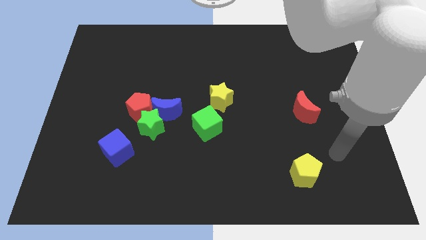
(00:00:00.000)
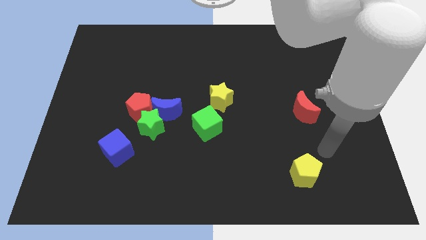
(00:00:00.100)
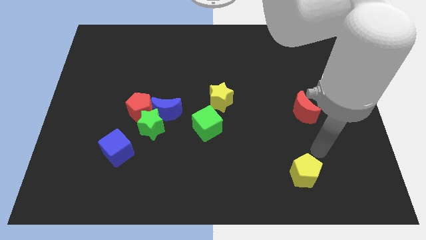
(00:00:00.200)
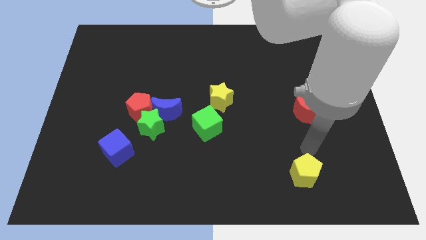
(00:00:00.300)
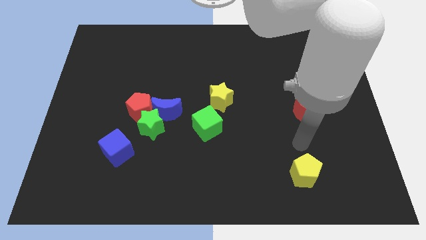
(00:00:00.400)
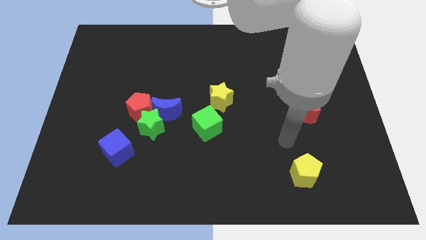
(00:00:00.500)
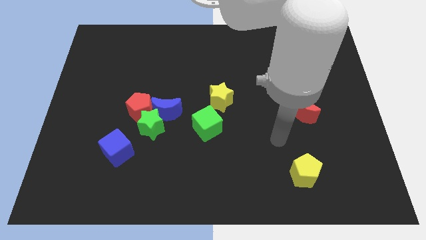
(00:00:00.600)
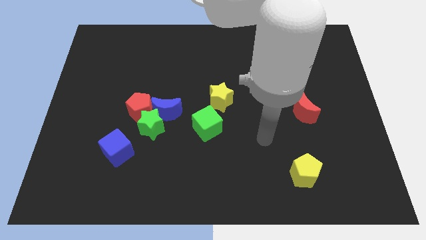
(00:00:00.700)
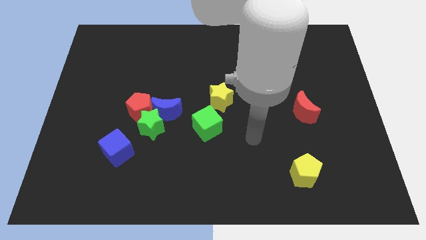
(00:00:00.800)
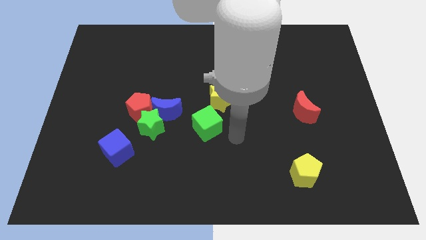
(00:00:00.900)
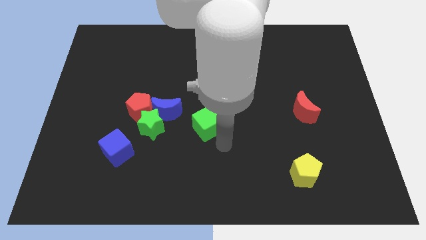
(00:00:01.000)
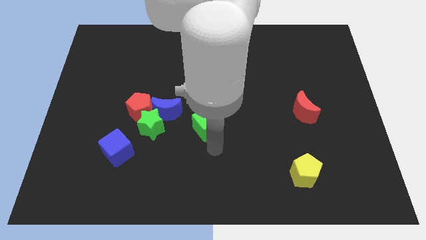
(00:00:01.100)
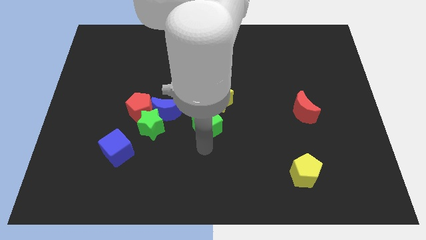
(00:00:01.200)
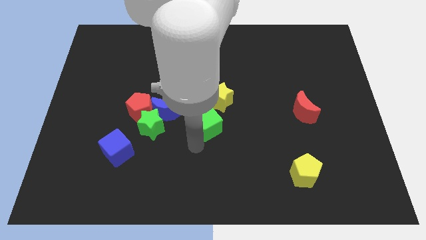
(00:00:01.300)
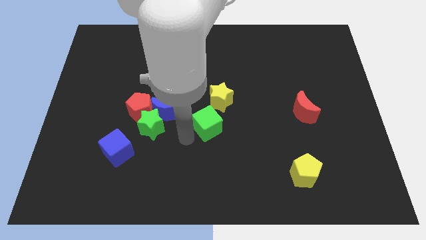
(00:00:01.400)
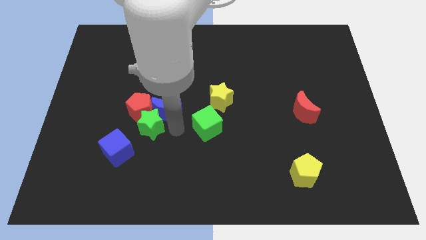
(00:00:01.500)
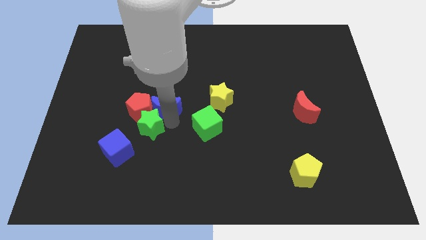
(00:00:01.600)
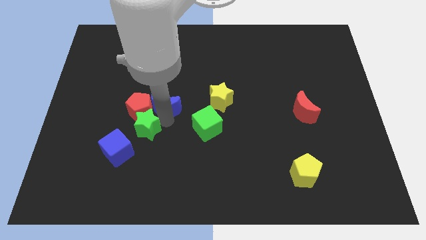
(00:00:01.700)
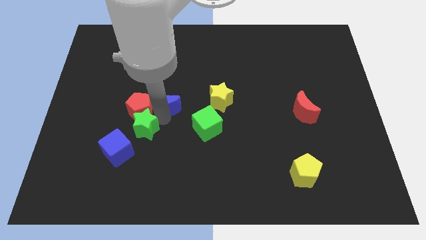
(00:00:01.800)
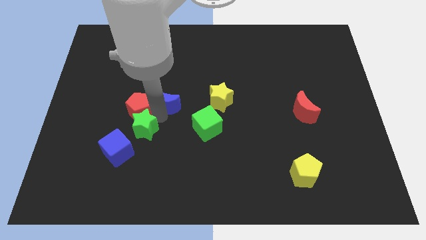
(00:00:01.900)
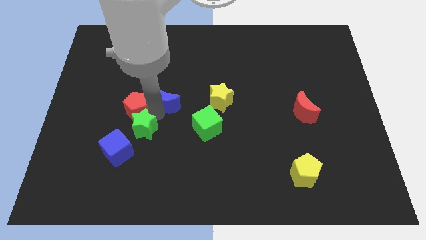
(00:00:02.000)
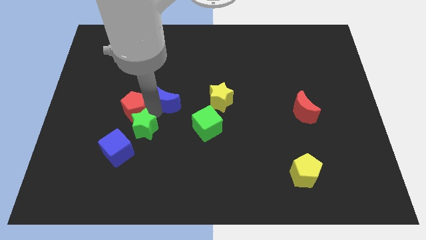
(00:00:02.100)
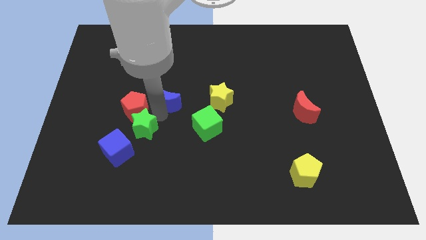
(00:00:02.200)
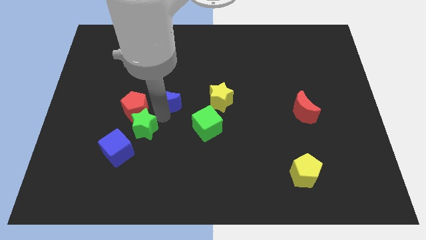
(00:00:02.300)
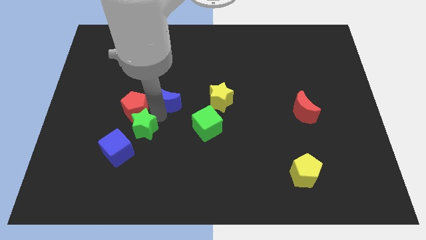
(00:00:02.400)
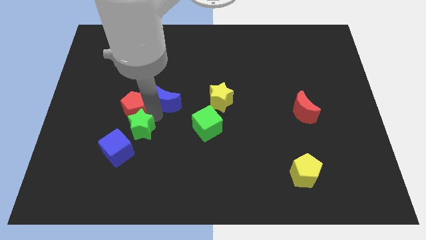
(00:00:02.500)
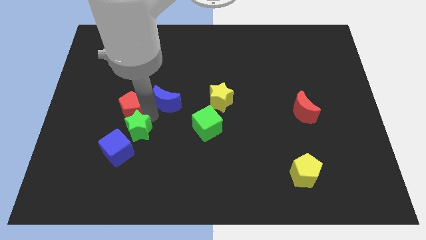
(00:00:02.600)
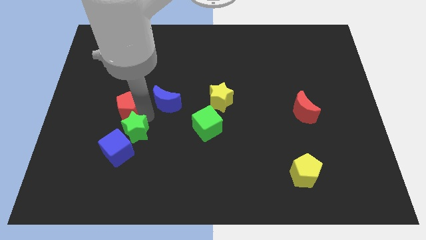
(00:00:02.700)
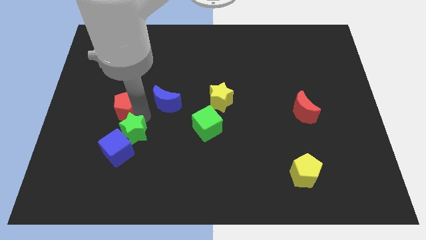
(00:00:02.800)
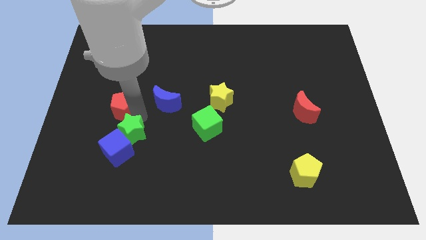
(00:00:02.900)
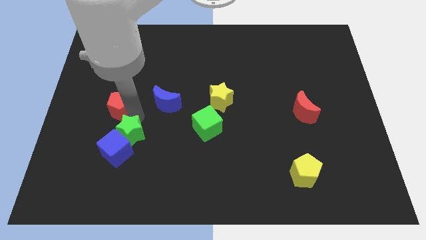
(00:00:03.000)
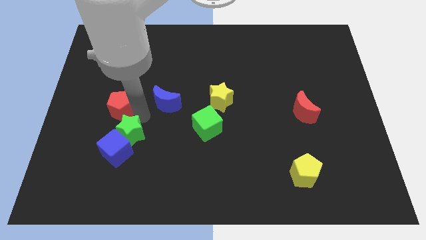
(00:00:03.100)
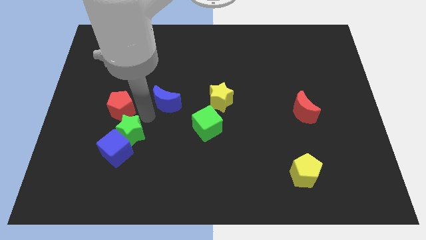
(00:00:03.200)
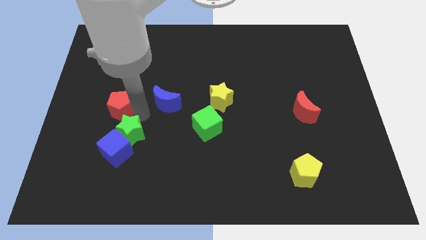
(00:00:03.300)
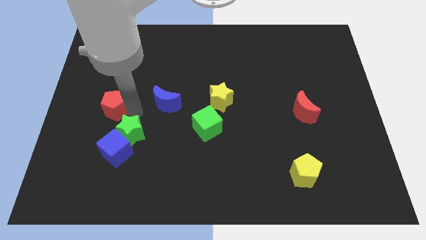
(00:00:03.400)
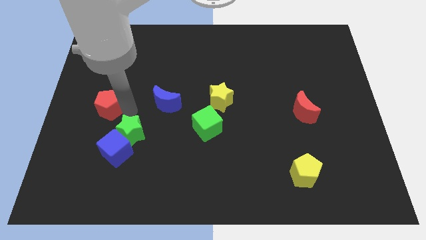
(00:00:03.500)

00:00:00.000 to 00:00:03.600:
move the red pentagon away from the green star and blue moon

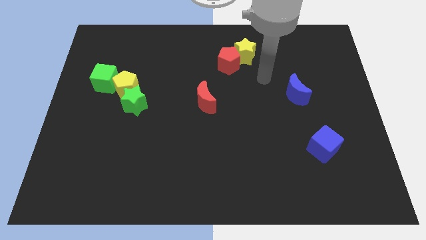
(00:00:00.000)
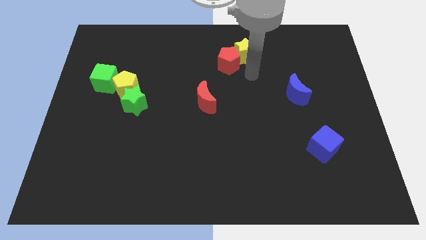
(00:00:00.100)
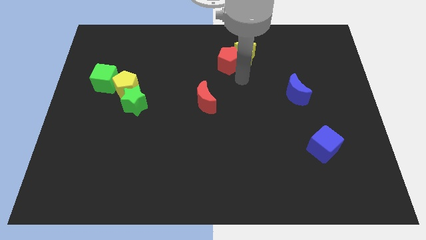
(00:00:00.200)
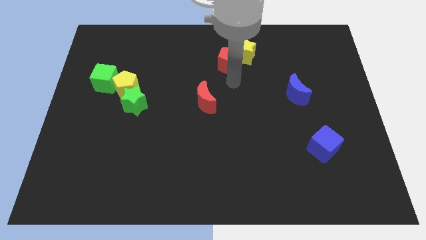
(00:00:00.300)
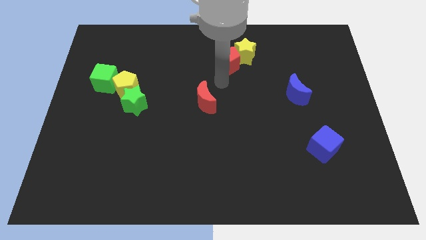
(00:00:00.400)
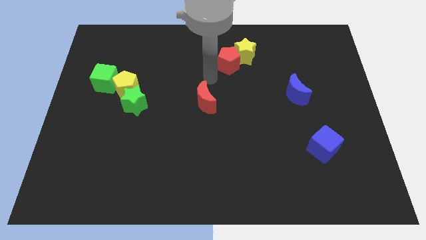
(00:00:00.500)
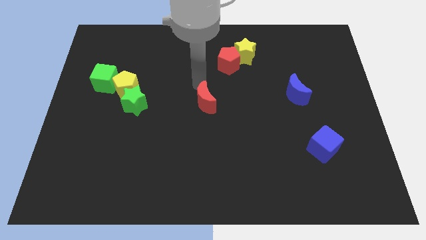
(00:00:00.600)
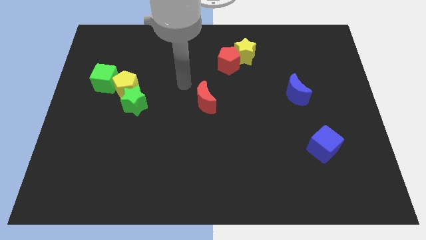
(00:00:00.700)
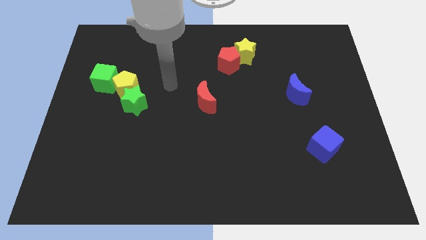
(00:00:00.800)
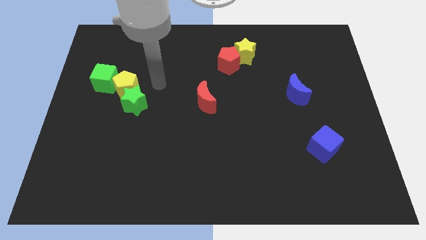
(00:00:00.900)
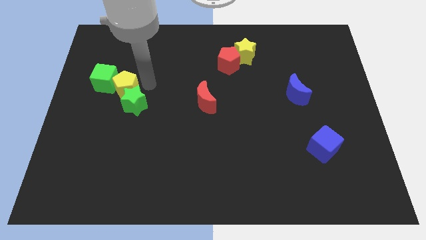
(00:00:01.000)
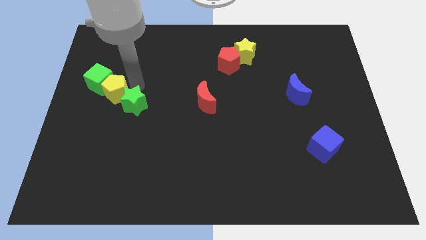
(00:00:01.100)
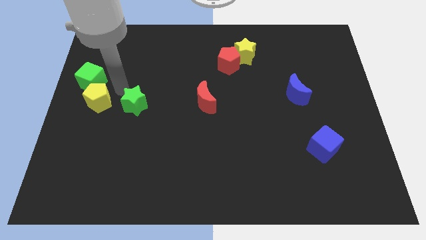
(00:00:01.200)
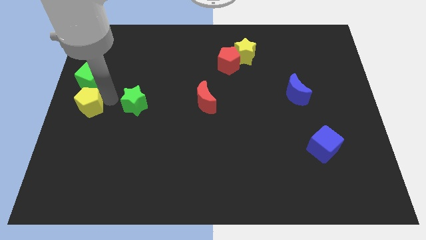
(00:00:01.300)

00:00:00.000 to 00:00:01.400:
pull the green star apart from the yellow pentagon

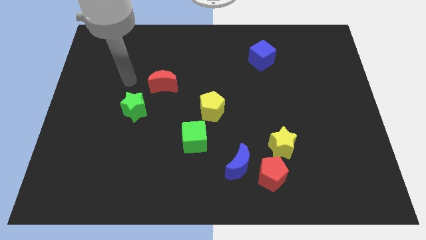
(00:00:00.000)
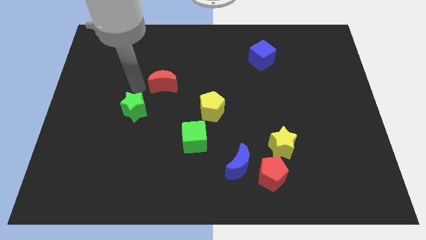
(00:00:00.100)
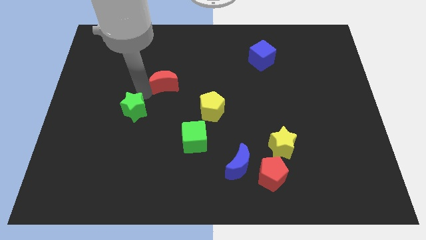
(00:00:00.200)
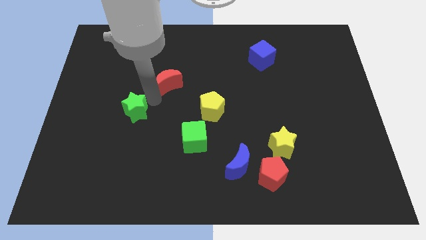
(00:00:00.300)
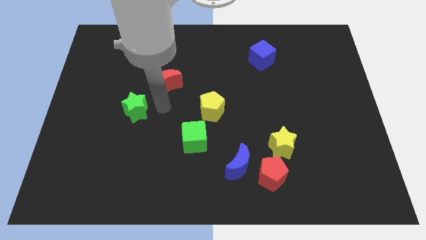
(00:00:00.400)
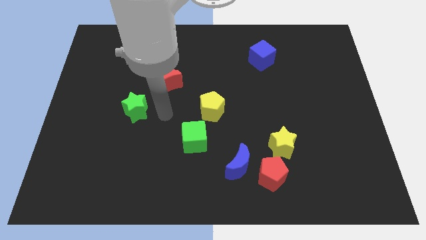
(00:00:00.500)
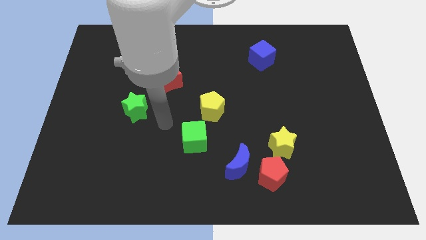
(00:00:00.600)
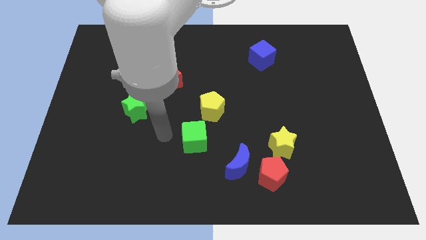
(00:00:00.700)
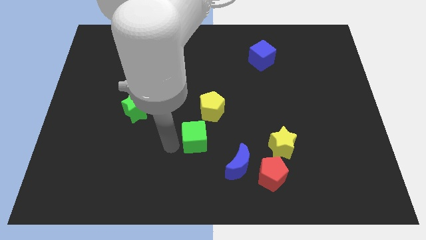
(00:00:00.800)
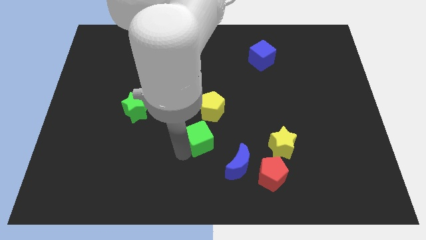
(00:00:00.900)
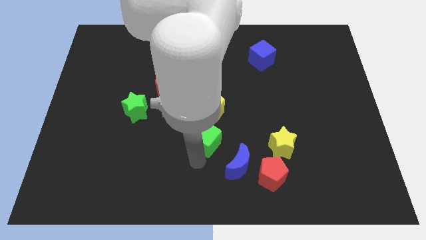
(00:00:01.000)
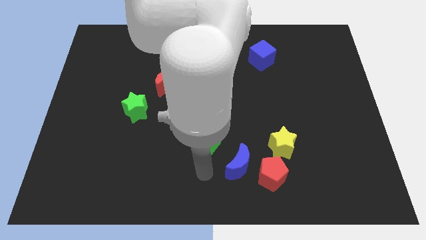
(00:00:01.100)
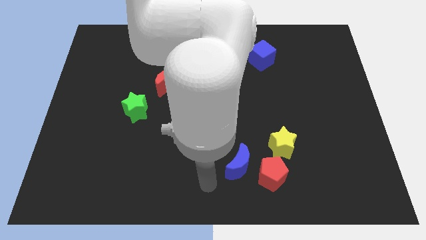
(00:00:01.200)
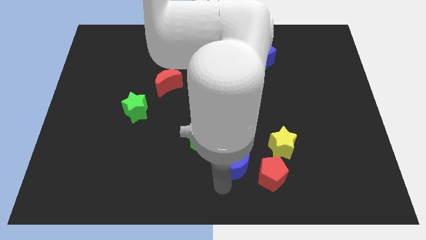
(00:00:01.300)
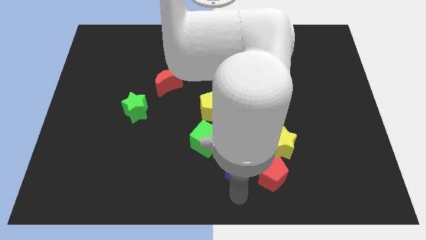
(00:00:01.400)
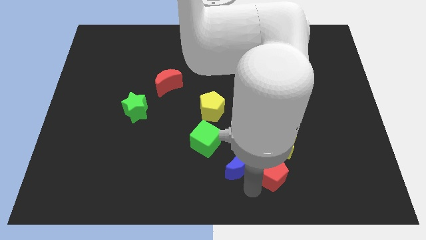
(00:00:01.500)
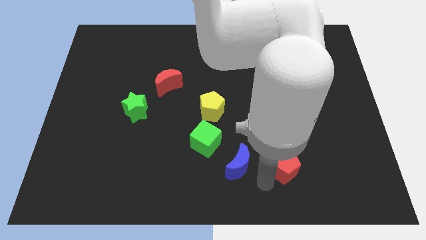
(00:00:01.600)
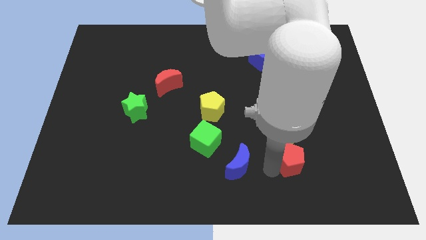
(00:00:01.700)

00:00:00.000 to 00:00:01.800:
pull the blue moon apart from the red pentagon

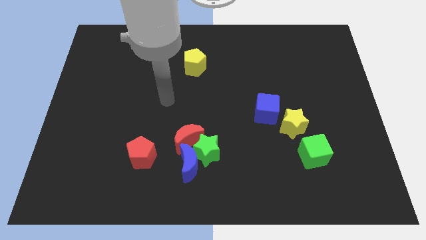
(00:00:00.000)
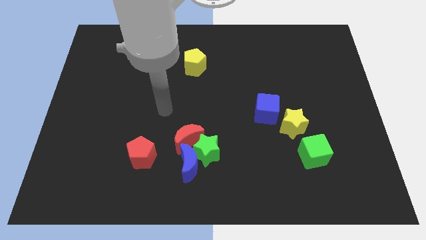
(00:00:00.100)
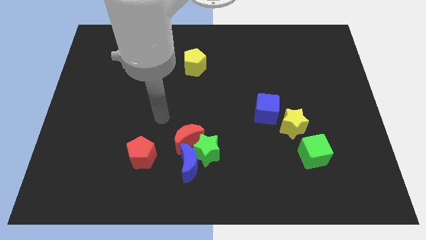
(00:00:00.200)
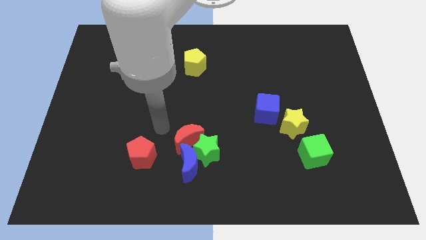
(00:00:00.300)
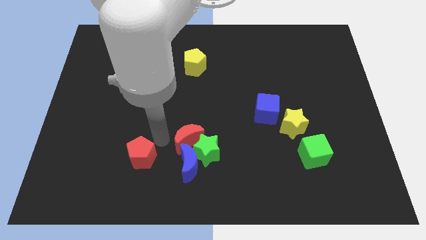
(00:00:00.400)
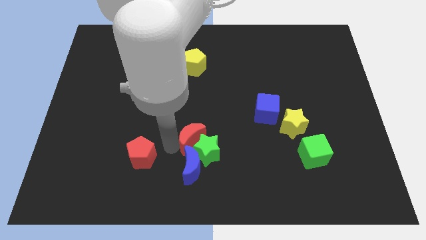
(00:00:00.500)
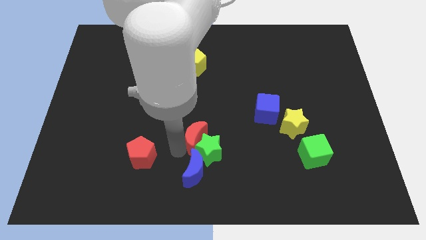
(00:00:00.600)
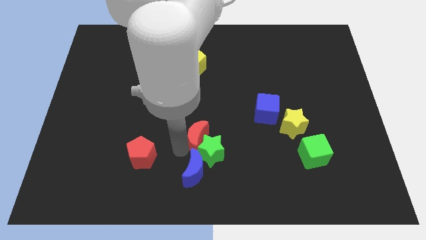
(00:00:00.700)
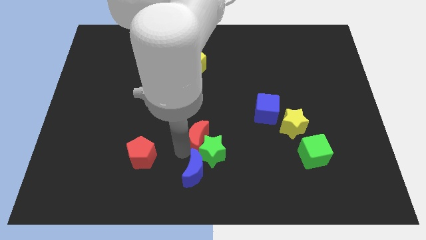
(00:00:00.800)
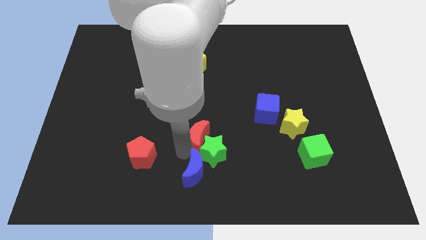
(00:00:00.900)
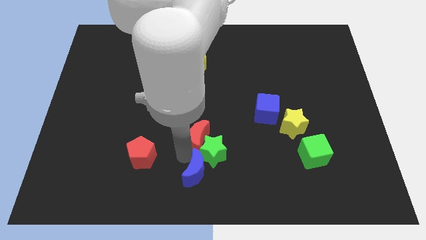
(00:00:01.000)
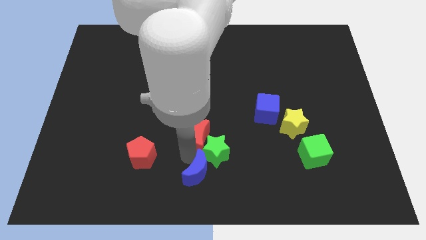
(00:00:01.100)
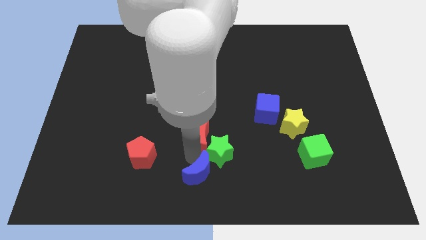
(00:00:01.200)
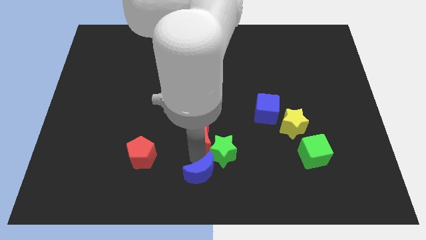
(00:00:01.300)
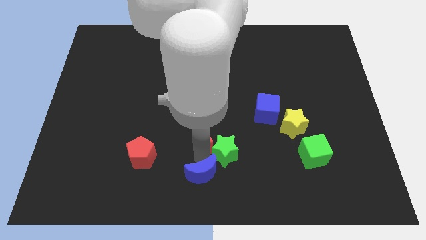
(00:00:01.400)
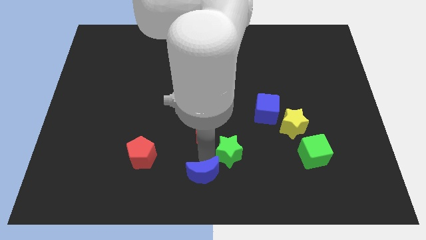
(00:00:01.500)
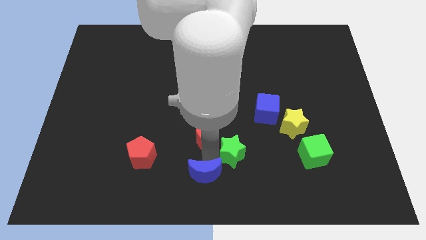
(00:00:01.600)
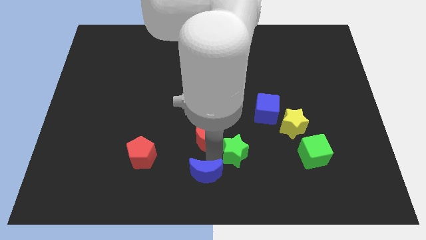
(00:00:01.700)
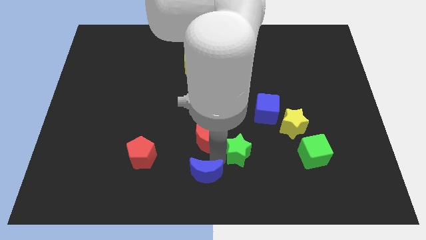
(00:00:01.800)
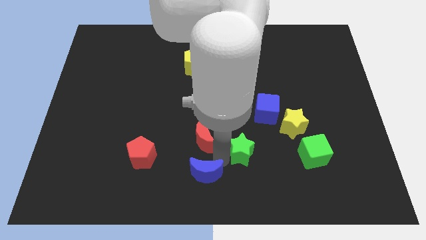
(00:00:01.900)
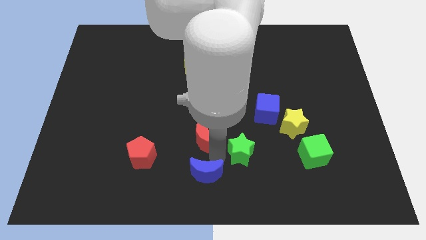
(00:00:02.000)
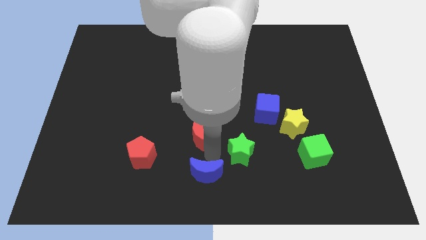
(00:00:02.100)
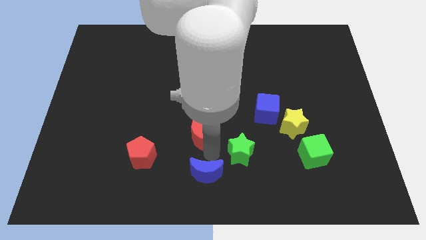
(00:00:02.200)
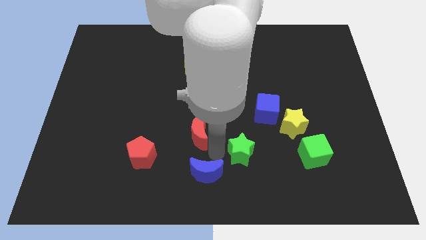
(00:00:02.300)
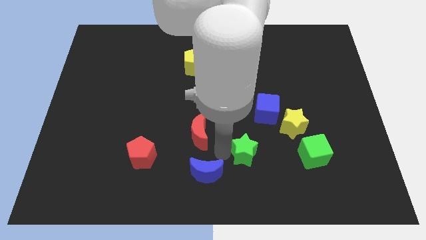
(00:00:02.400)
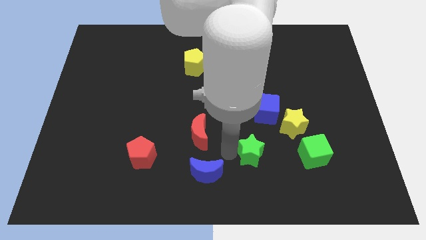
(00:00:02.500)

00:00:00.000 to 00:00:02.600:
separate the green star from the blue moon and red moon
